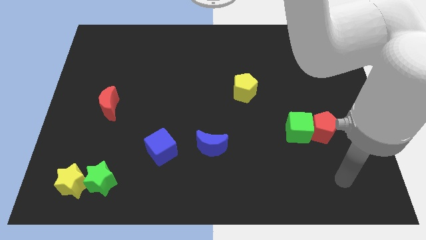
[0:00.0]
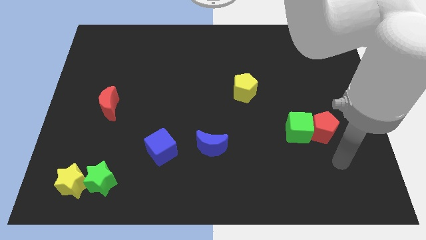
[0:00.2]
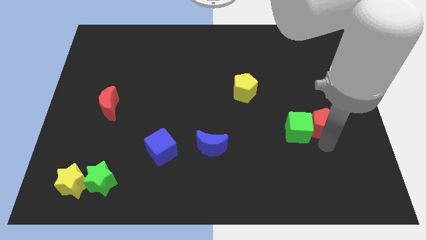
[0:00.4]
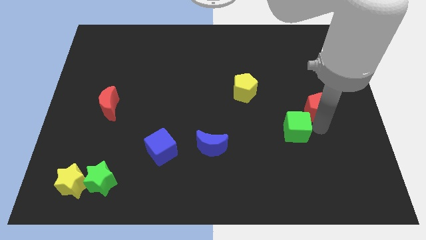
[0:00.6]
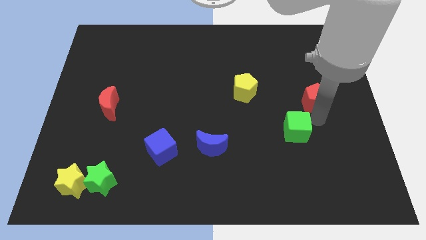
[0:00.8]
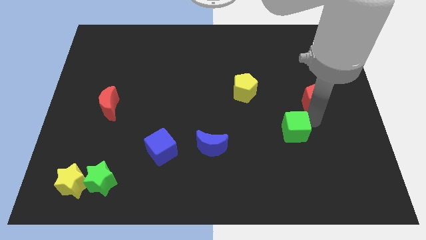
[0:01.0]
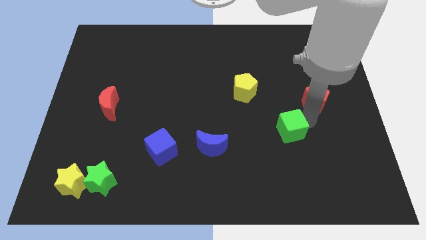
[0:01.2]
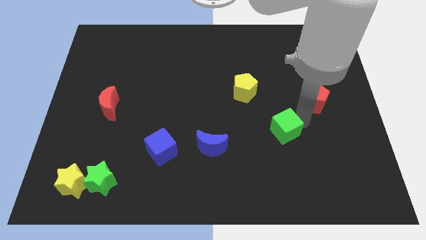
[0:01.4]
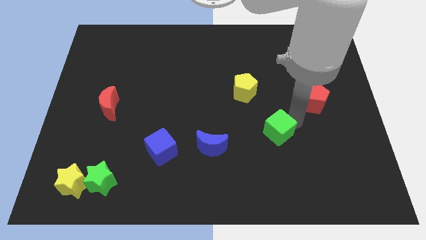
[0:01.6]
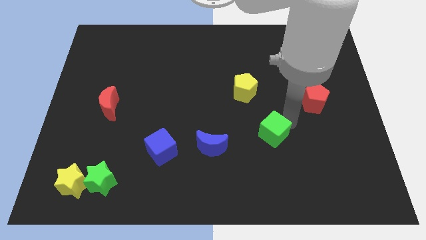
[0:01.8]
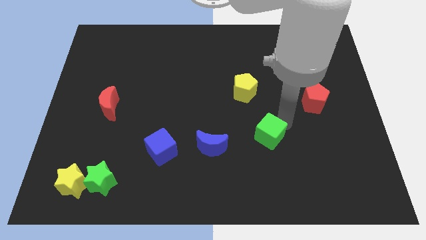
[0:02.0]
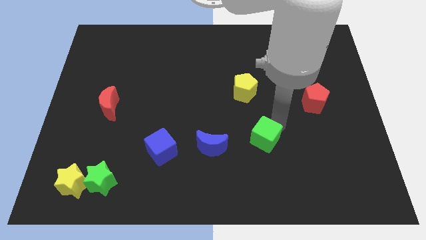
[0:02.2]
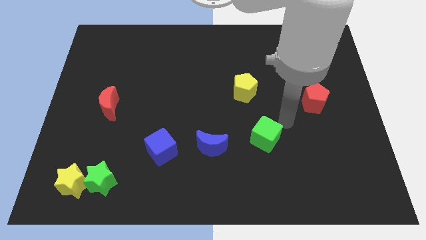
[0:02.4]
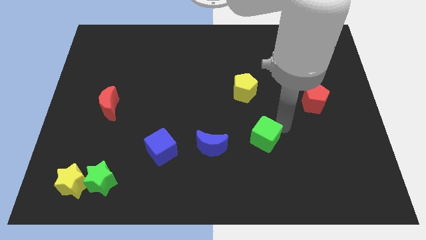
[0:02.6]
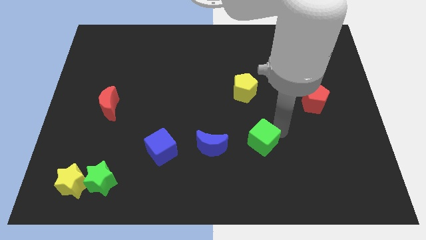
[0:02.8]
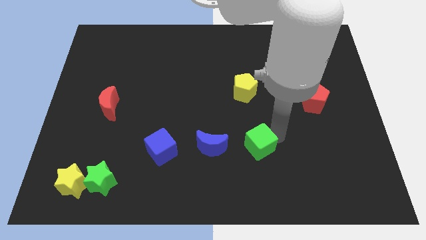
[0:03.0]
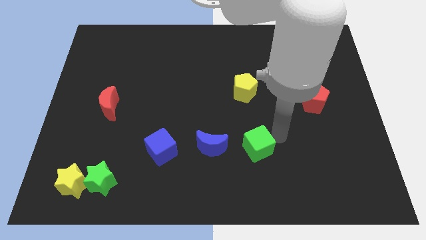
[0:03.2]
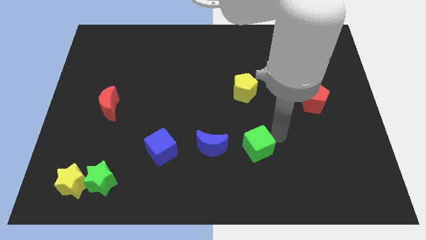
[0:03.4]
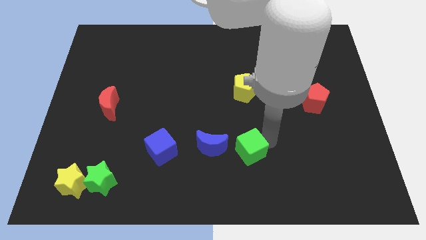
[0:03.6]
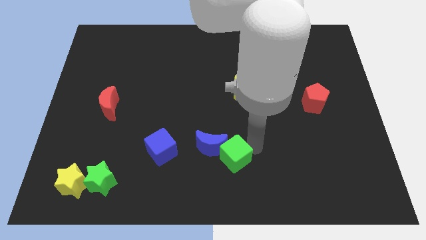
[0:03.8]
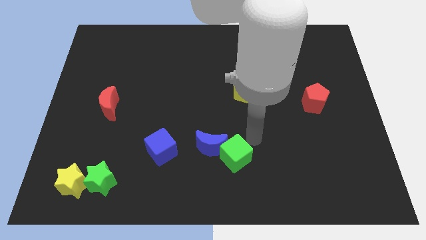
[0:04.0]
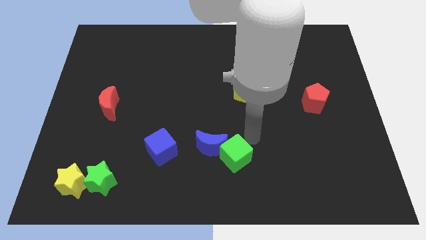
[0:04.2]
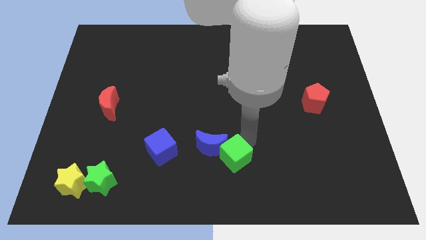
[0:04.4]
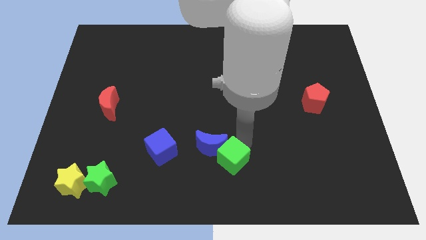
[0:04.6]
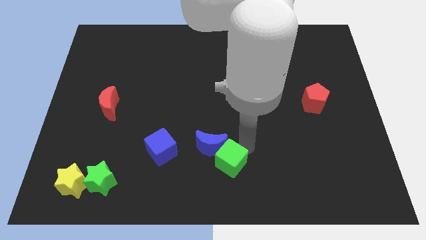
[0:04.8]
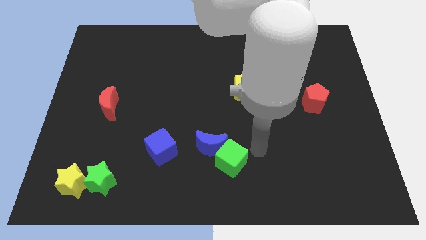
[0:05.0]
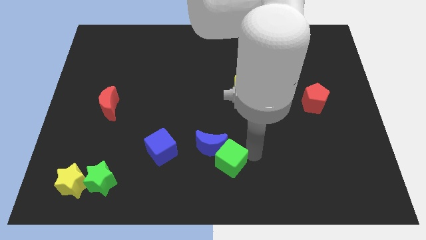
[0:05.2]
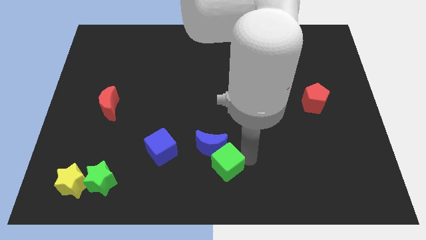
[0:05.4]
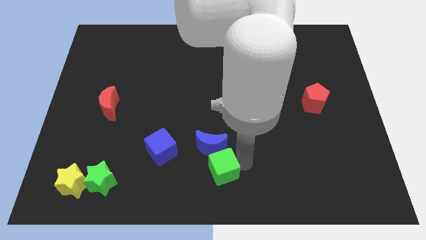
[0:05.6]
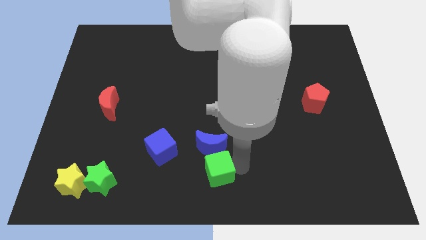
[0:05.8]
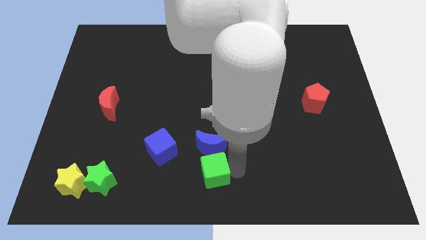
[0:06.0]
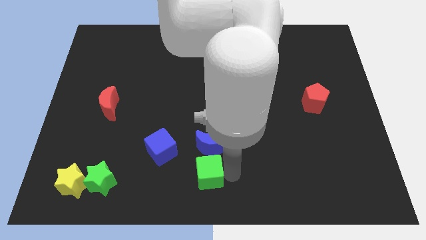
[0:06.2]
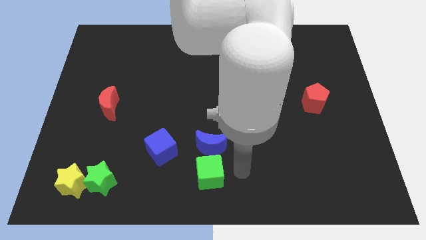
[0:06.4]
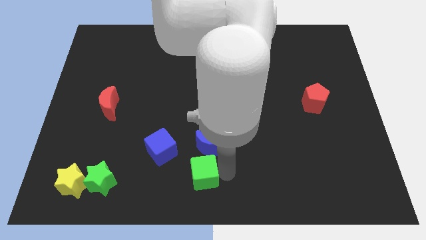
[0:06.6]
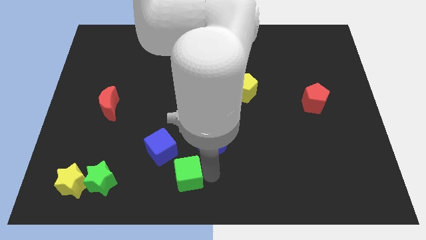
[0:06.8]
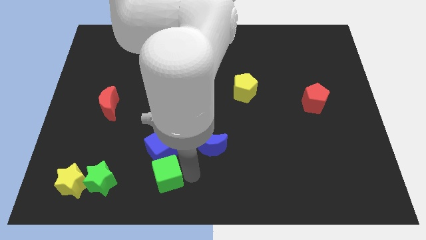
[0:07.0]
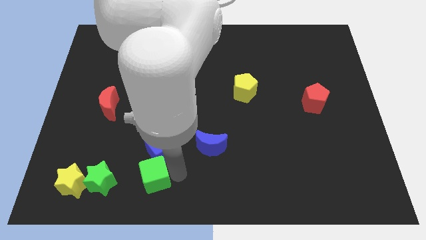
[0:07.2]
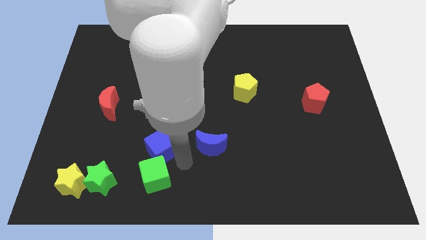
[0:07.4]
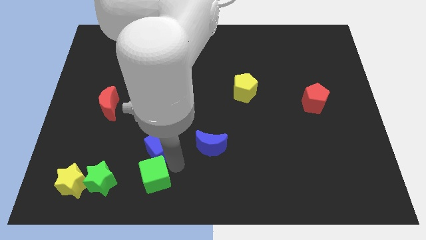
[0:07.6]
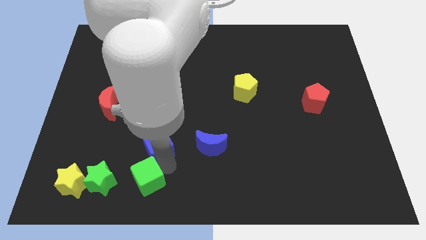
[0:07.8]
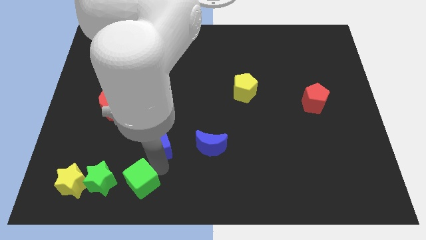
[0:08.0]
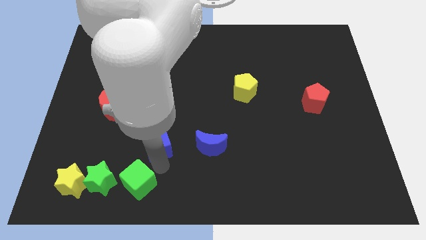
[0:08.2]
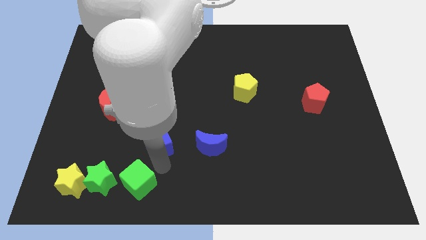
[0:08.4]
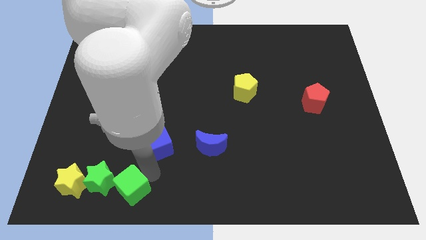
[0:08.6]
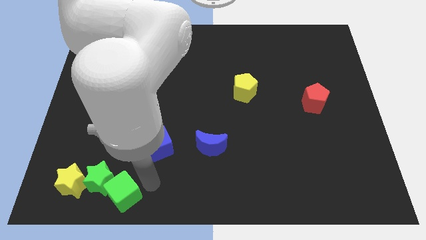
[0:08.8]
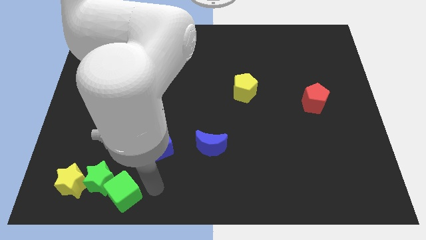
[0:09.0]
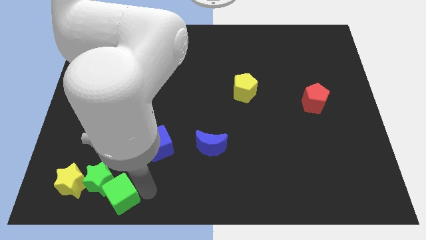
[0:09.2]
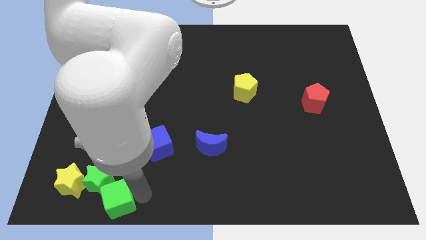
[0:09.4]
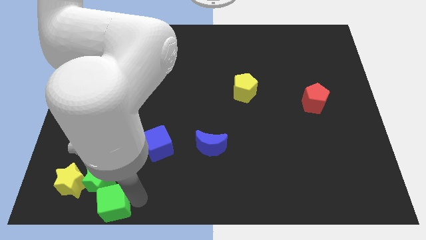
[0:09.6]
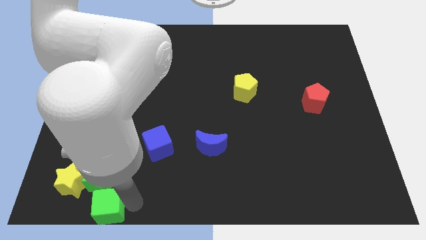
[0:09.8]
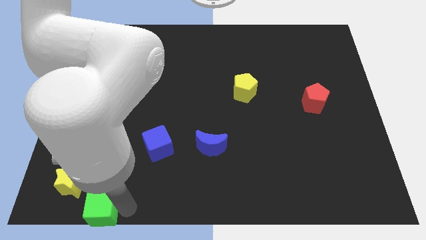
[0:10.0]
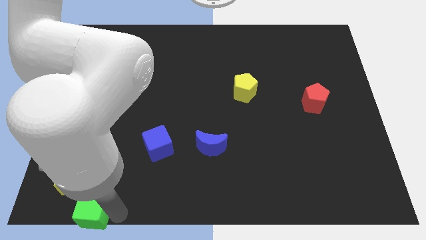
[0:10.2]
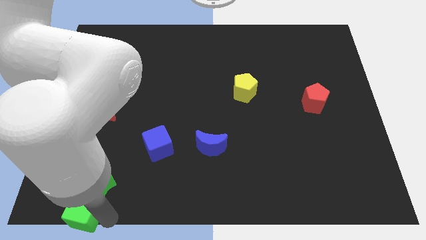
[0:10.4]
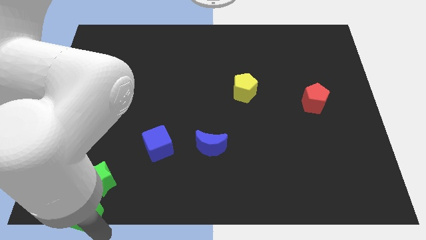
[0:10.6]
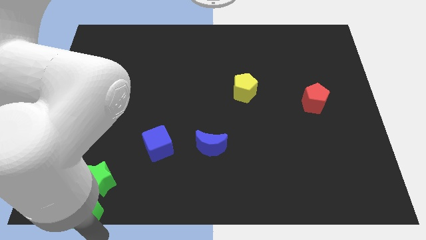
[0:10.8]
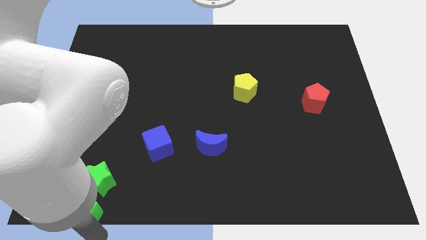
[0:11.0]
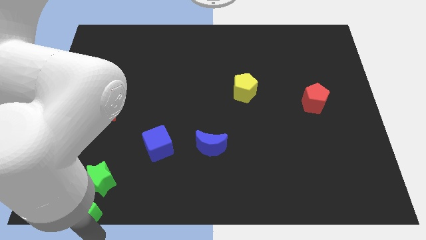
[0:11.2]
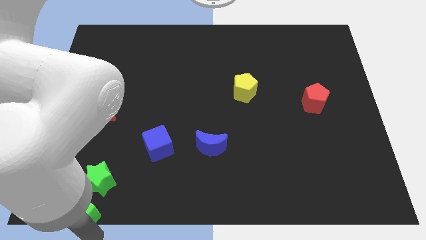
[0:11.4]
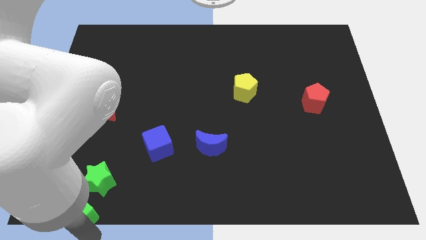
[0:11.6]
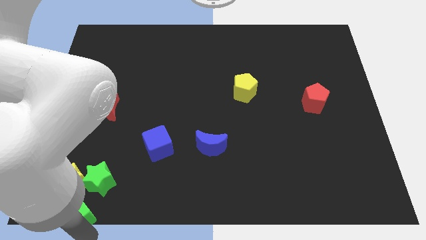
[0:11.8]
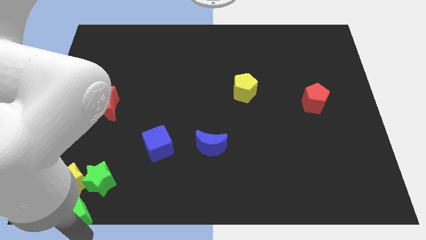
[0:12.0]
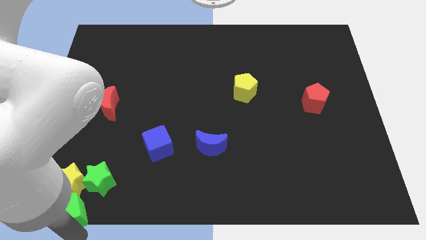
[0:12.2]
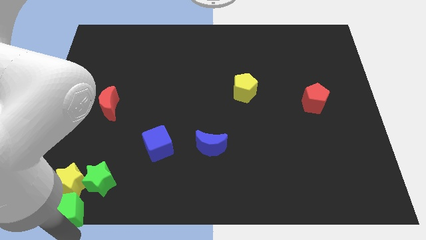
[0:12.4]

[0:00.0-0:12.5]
put the green cube towards the yellow star

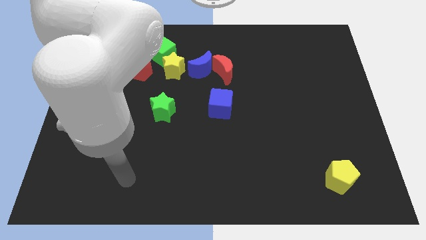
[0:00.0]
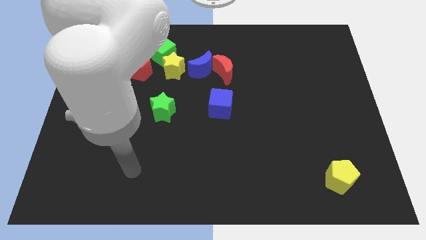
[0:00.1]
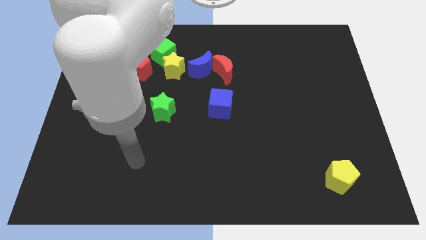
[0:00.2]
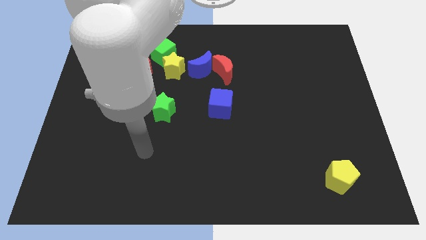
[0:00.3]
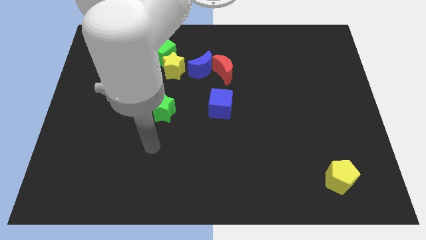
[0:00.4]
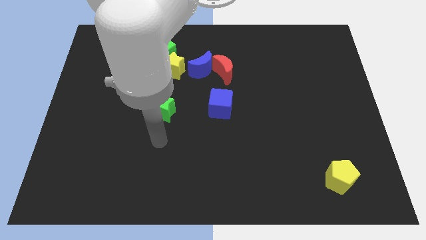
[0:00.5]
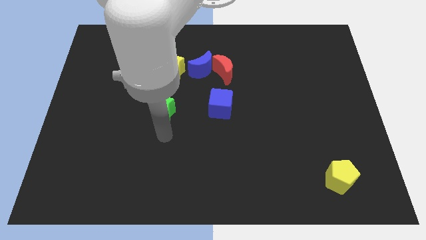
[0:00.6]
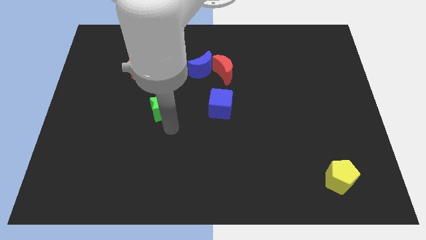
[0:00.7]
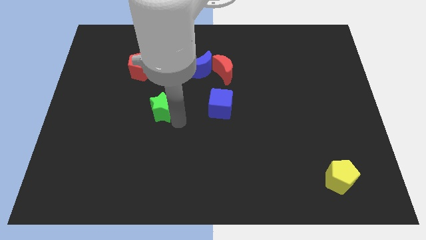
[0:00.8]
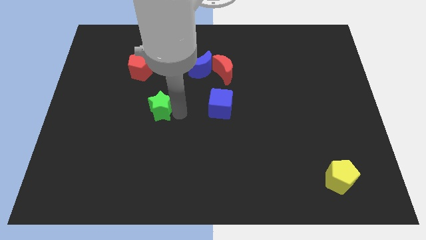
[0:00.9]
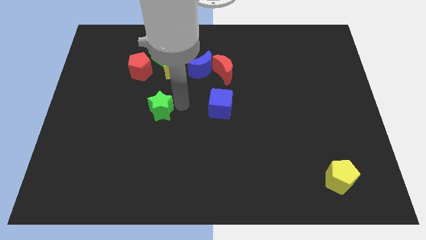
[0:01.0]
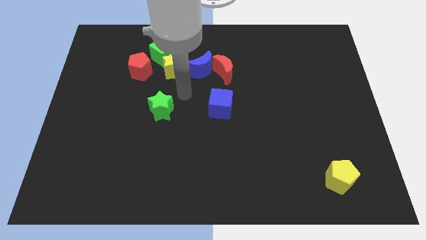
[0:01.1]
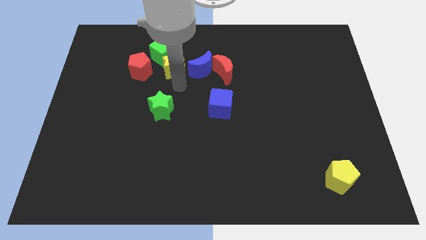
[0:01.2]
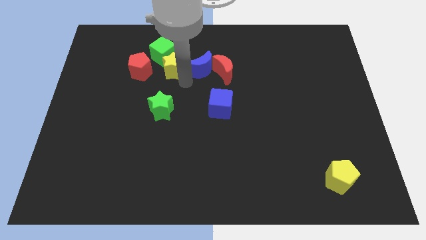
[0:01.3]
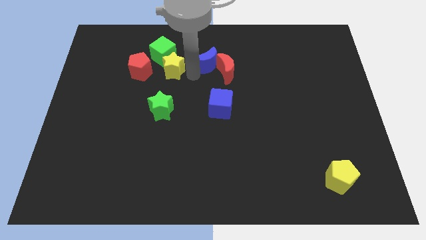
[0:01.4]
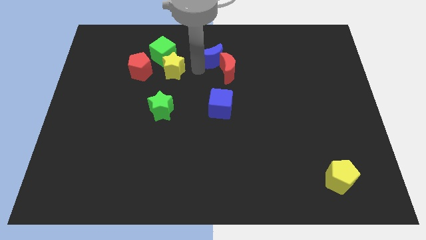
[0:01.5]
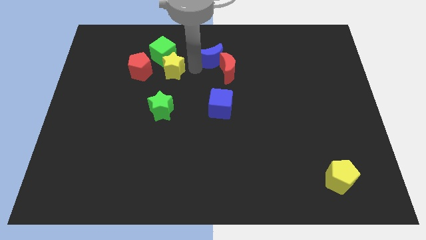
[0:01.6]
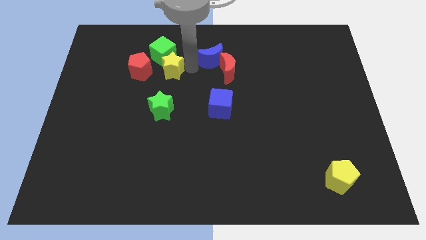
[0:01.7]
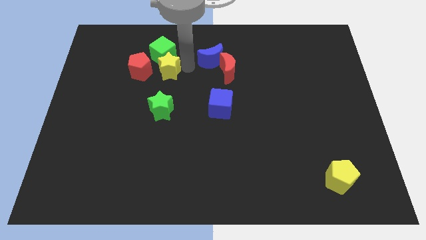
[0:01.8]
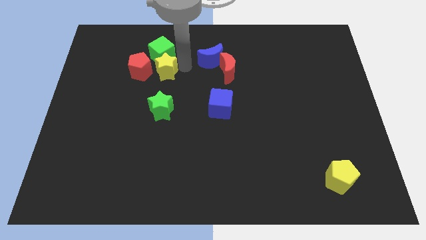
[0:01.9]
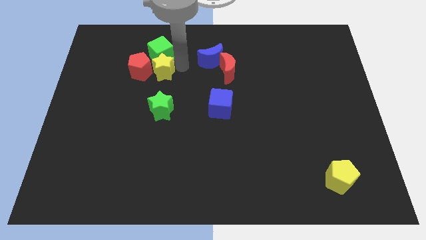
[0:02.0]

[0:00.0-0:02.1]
push the yellow star close to the red pentagon
